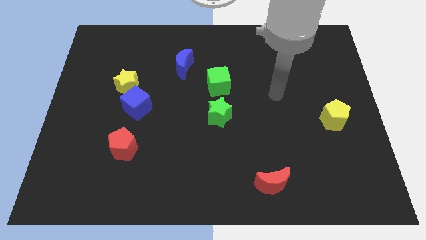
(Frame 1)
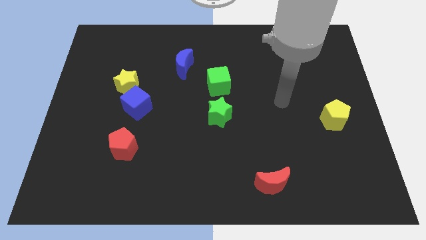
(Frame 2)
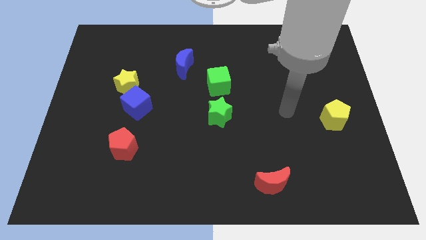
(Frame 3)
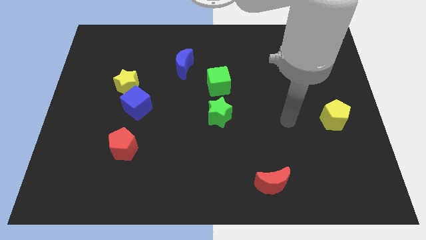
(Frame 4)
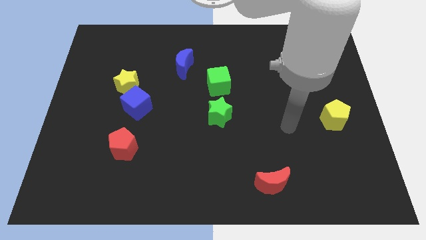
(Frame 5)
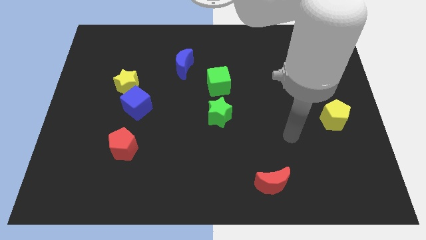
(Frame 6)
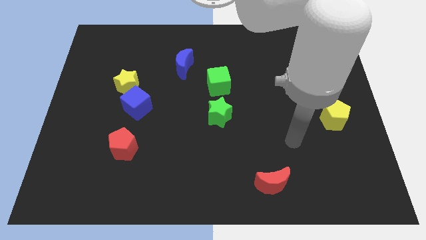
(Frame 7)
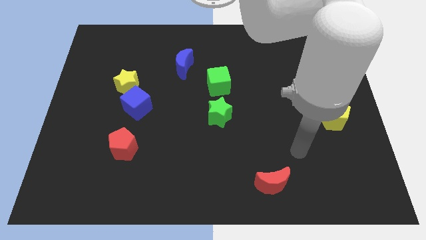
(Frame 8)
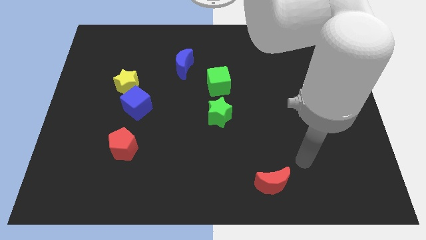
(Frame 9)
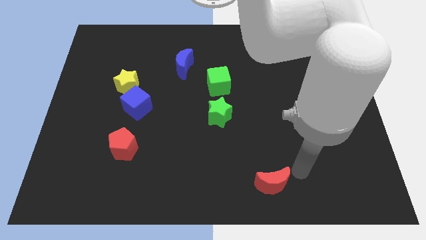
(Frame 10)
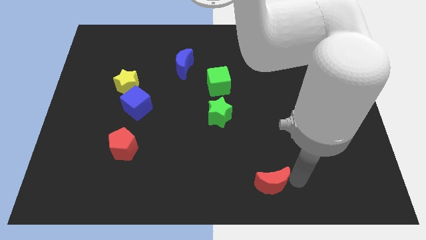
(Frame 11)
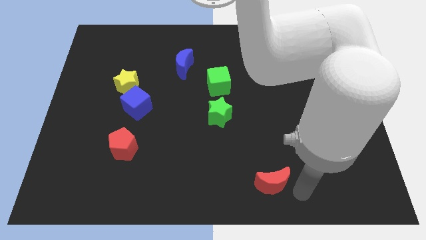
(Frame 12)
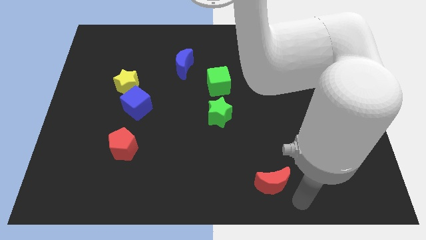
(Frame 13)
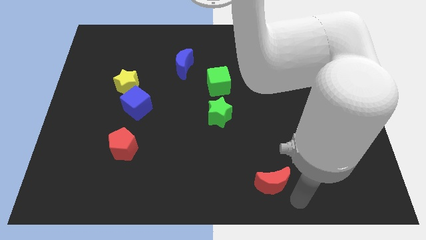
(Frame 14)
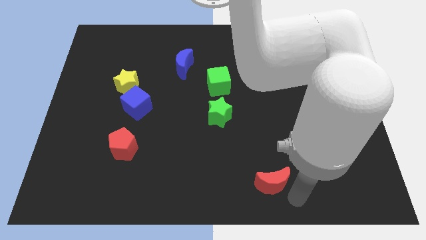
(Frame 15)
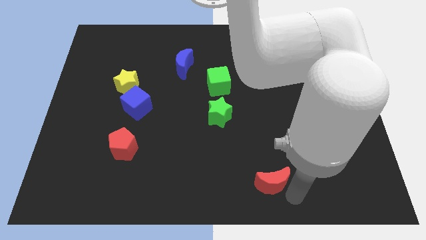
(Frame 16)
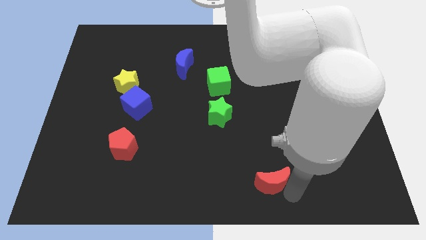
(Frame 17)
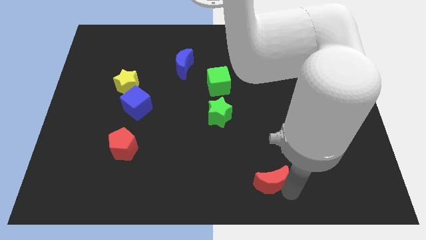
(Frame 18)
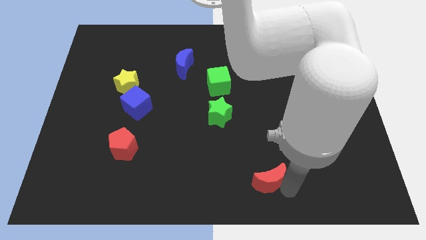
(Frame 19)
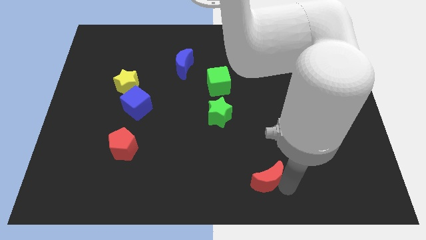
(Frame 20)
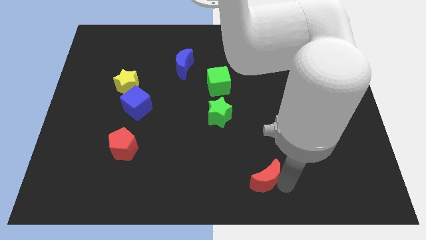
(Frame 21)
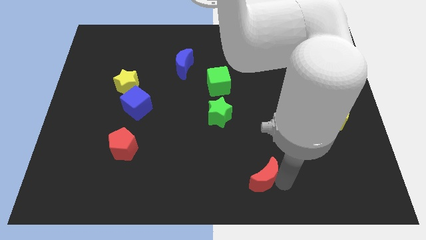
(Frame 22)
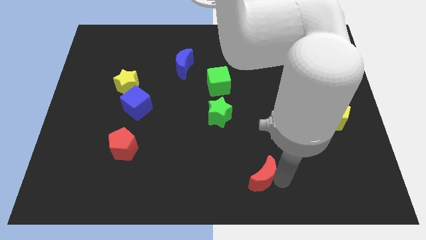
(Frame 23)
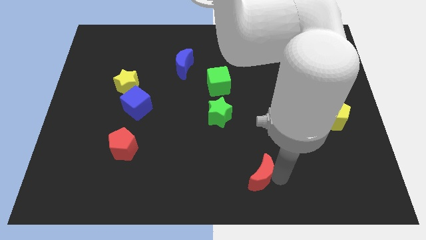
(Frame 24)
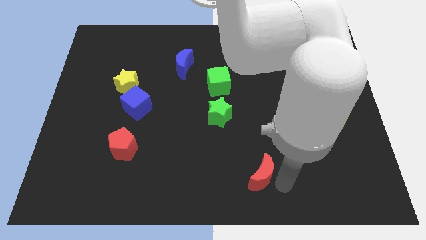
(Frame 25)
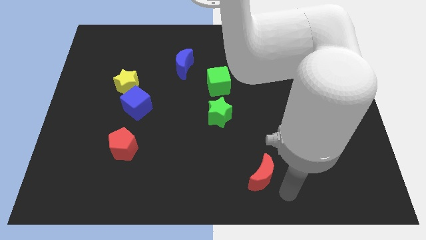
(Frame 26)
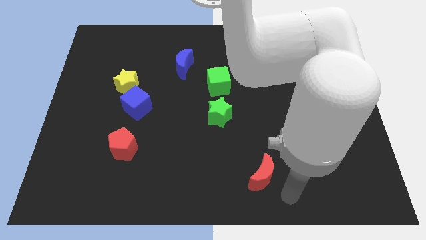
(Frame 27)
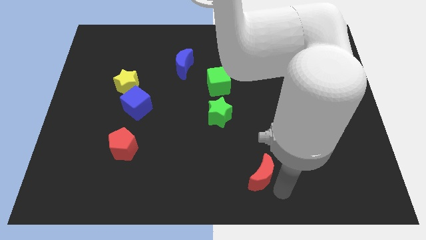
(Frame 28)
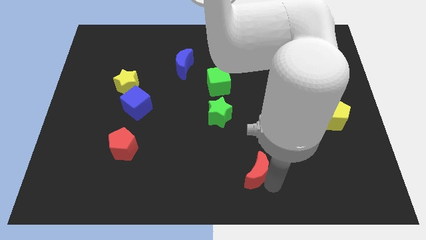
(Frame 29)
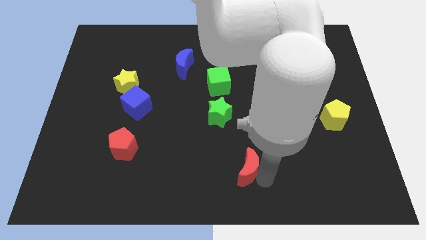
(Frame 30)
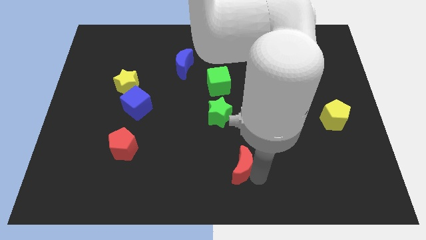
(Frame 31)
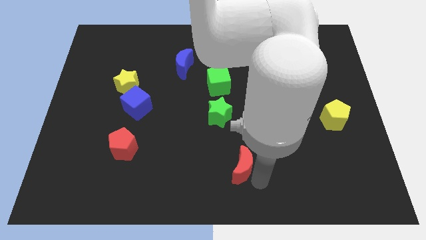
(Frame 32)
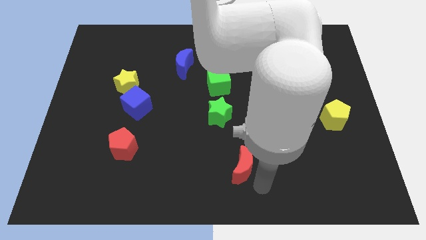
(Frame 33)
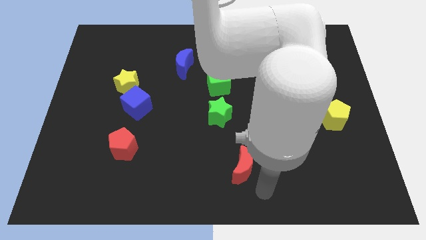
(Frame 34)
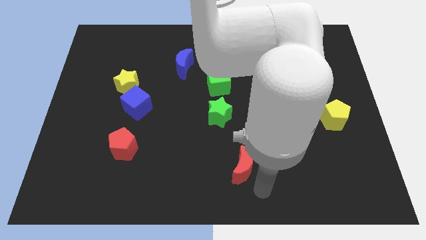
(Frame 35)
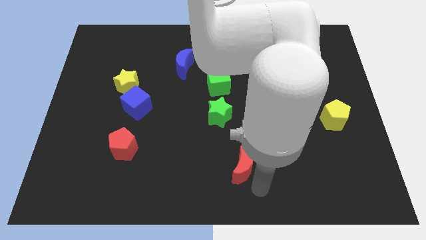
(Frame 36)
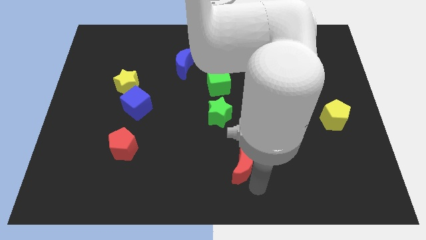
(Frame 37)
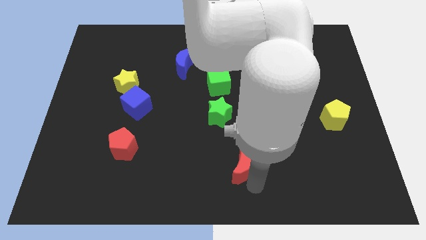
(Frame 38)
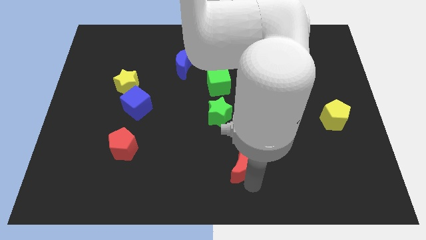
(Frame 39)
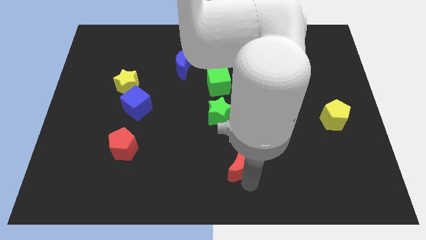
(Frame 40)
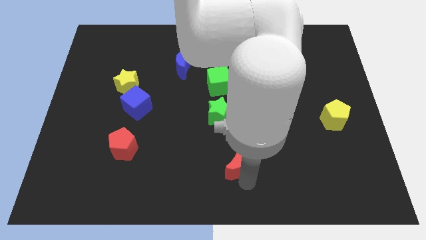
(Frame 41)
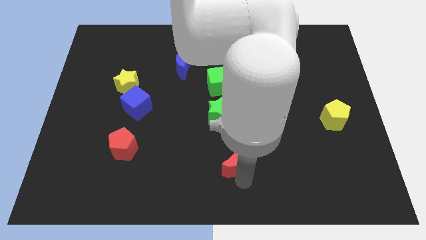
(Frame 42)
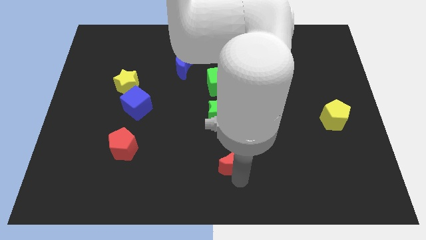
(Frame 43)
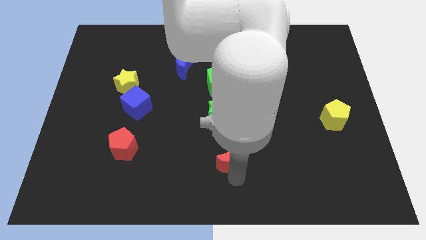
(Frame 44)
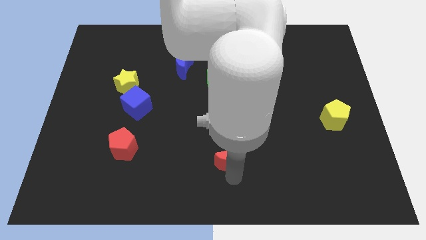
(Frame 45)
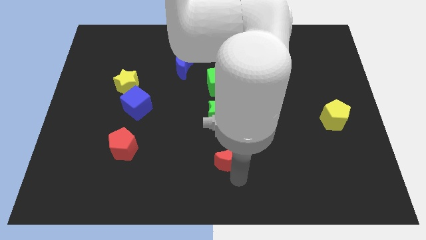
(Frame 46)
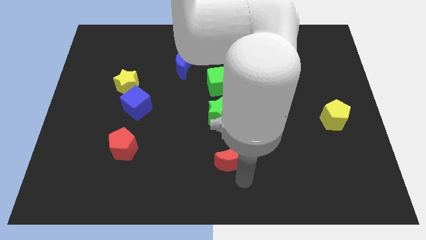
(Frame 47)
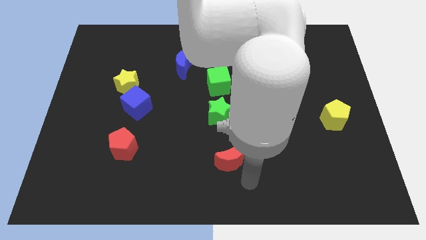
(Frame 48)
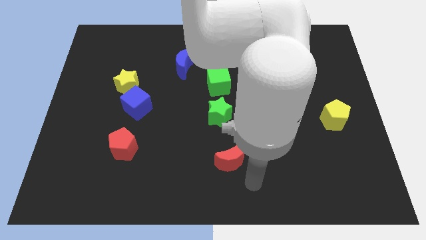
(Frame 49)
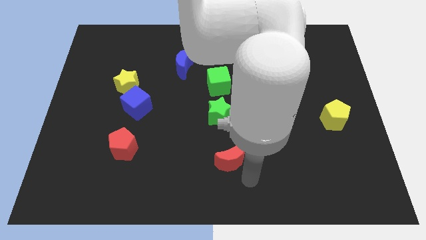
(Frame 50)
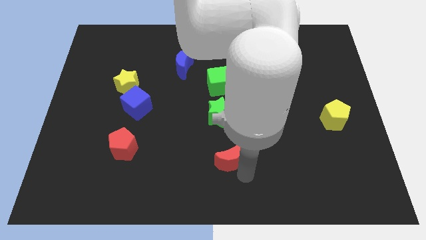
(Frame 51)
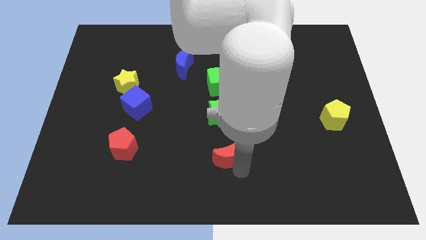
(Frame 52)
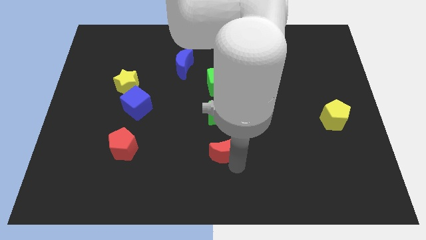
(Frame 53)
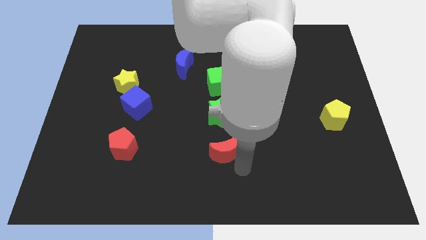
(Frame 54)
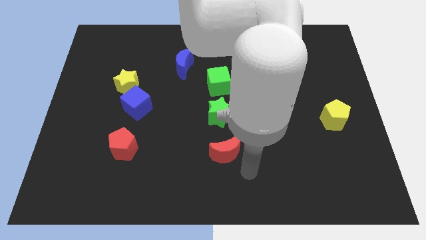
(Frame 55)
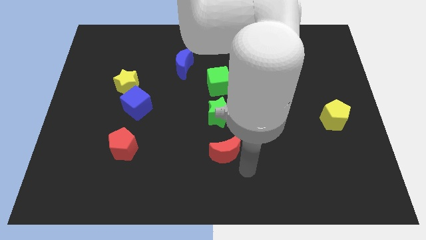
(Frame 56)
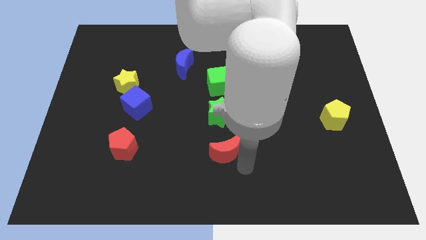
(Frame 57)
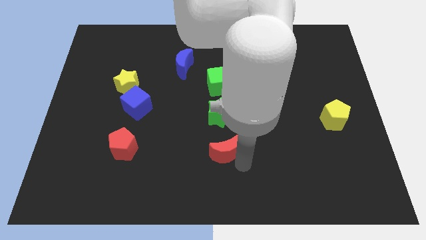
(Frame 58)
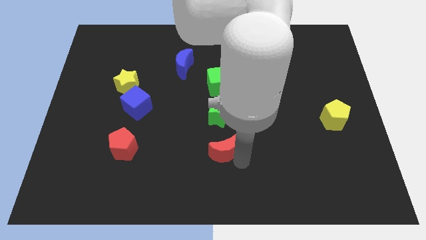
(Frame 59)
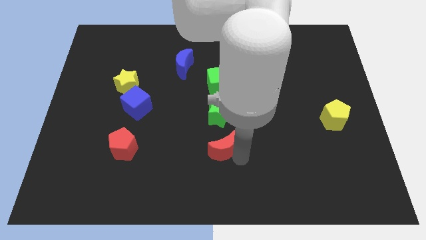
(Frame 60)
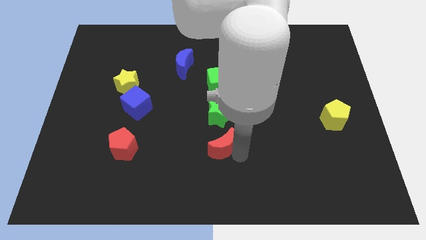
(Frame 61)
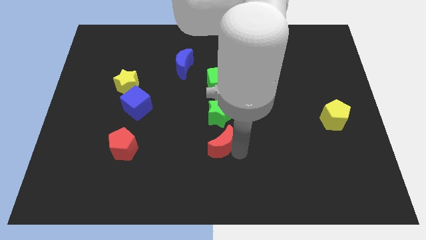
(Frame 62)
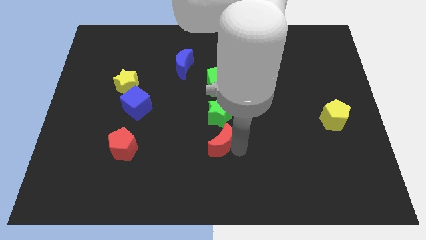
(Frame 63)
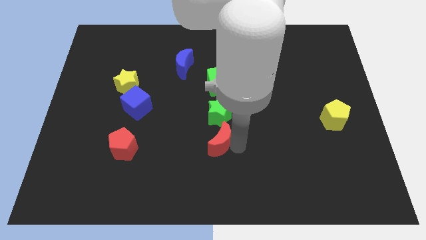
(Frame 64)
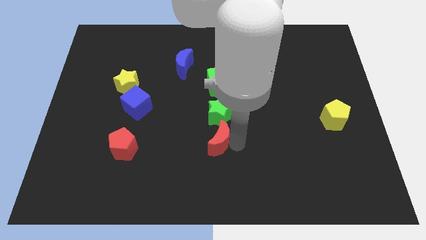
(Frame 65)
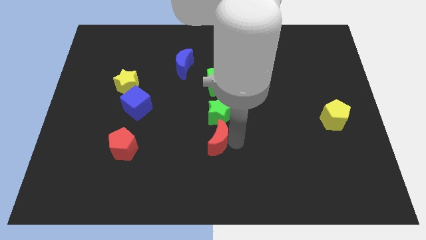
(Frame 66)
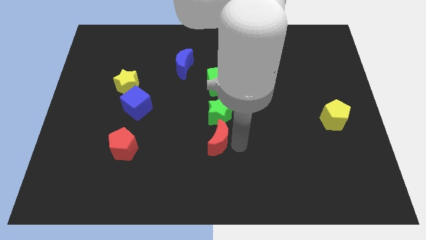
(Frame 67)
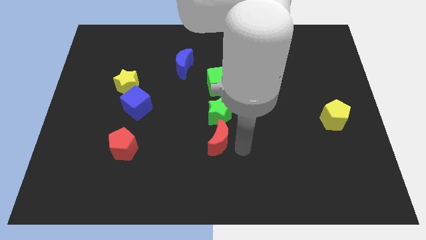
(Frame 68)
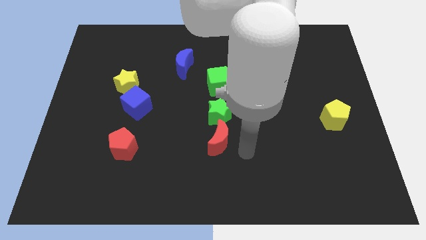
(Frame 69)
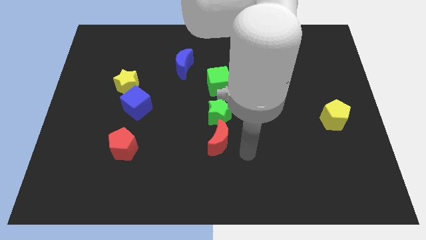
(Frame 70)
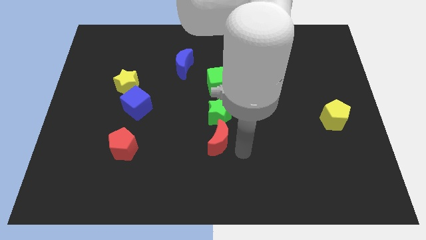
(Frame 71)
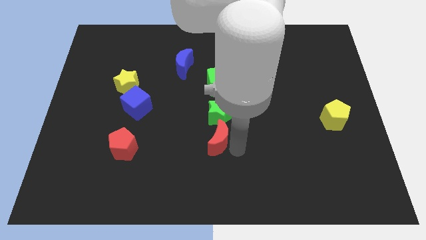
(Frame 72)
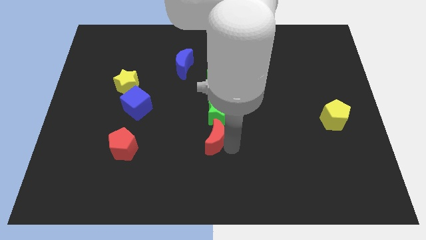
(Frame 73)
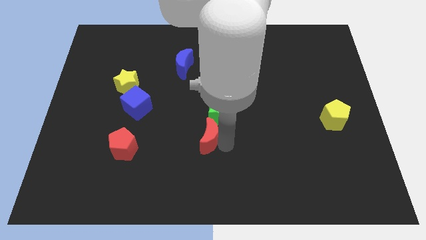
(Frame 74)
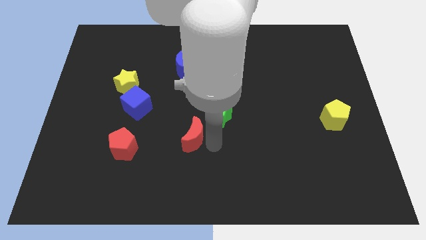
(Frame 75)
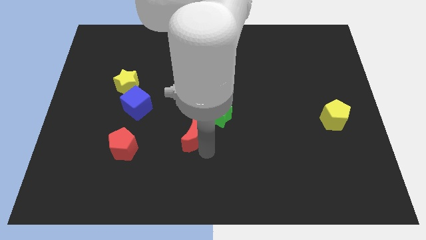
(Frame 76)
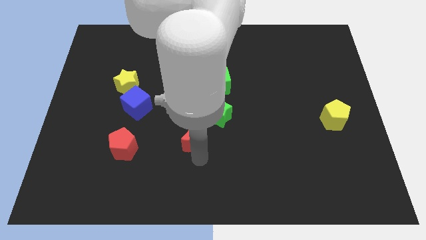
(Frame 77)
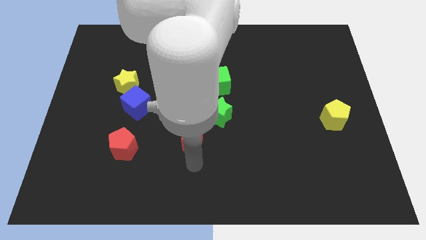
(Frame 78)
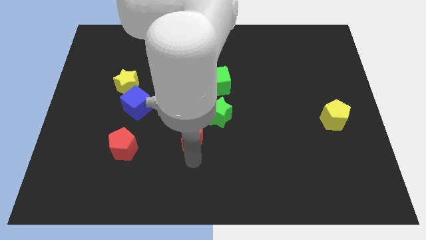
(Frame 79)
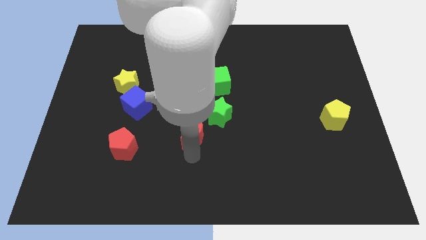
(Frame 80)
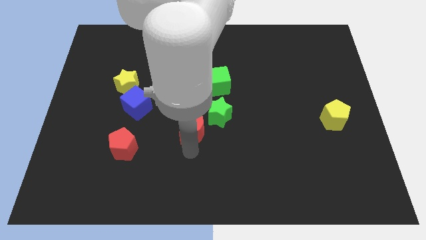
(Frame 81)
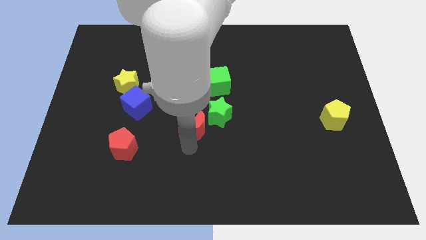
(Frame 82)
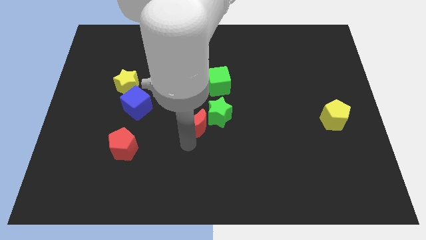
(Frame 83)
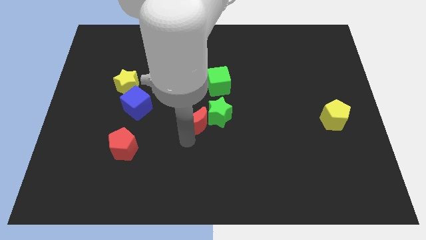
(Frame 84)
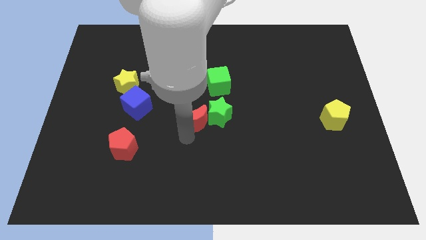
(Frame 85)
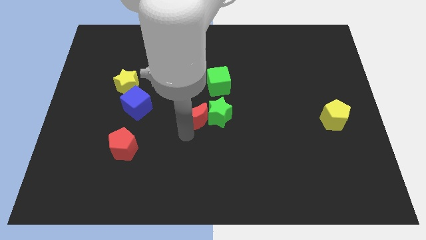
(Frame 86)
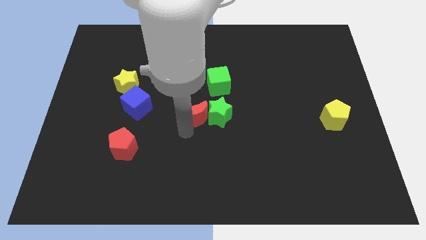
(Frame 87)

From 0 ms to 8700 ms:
slide the red moon to the bottom left side of the green cube
